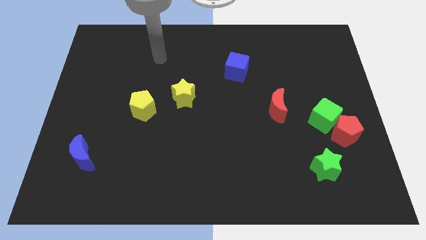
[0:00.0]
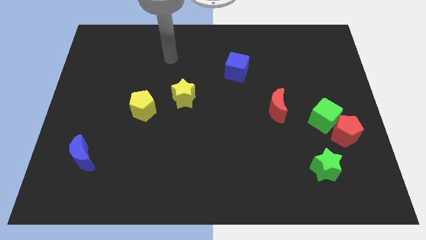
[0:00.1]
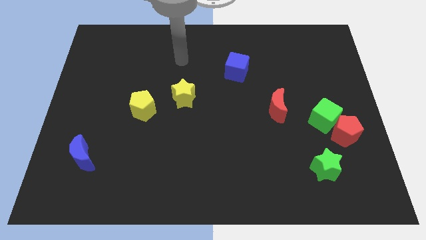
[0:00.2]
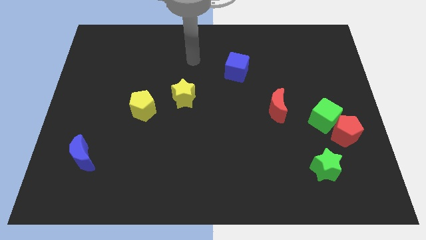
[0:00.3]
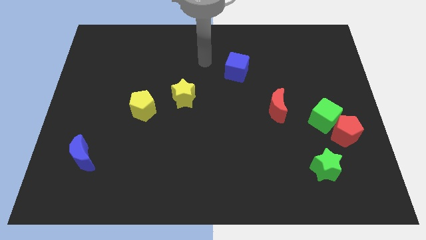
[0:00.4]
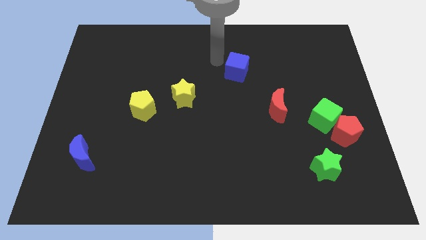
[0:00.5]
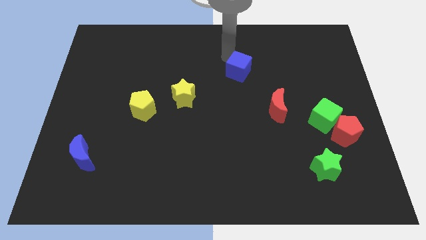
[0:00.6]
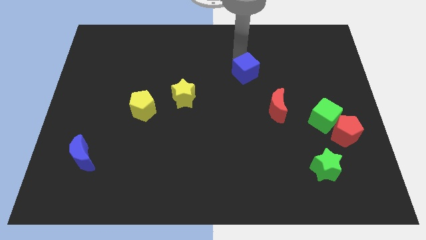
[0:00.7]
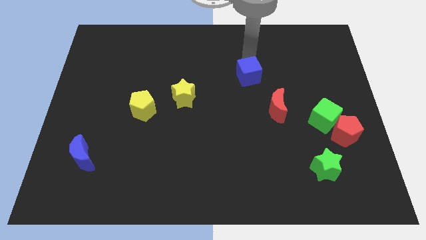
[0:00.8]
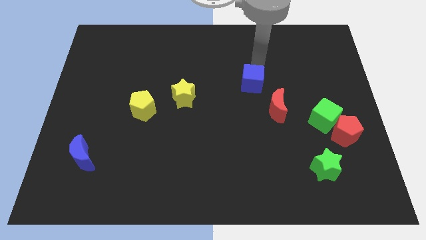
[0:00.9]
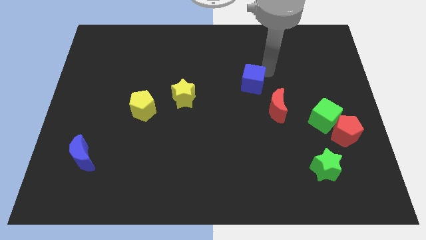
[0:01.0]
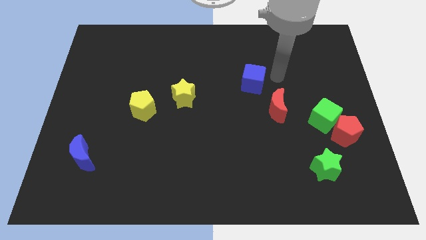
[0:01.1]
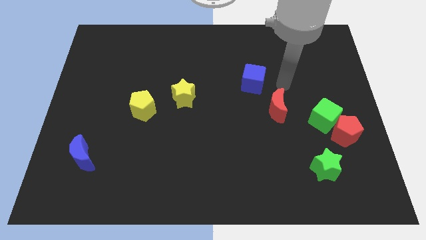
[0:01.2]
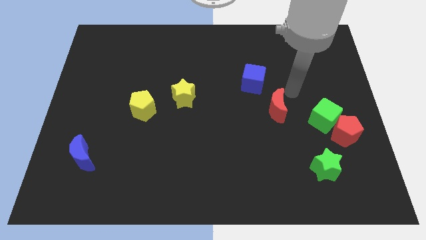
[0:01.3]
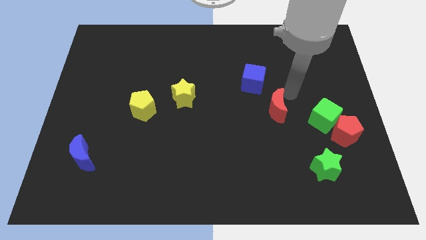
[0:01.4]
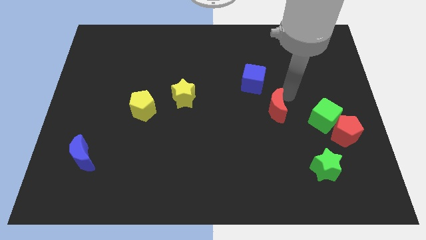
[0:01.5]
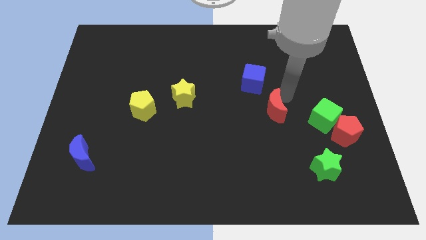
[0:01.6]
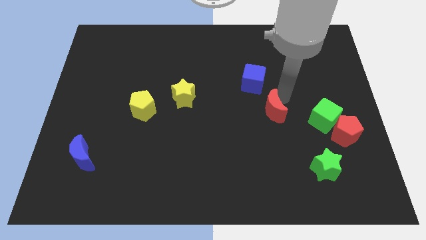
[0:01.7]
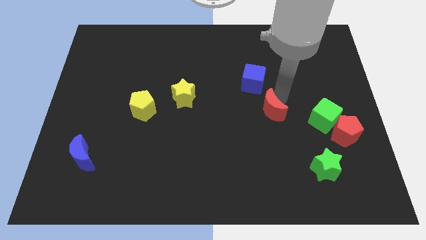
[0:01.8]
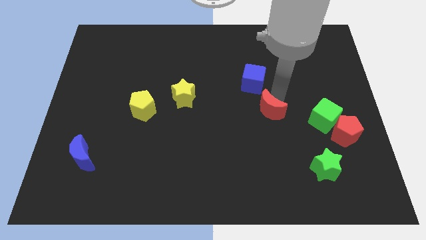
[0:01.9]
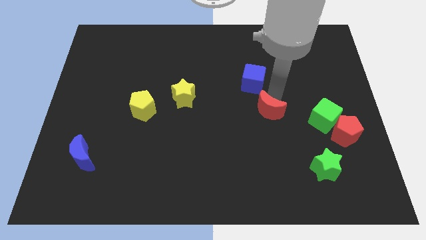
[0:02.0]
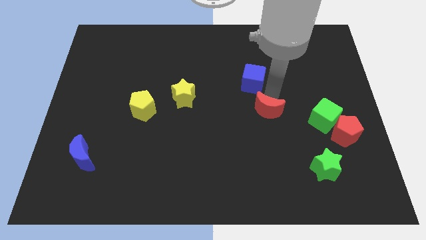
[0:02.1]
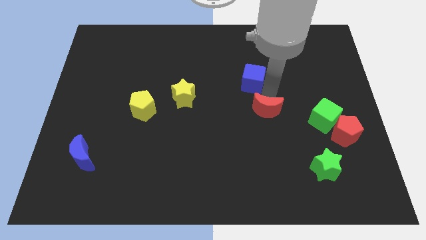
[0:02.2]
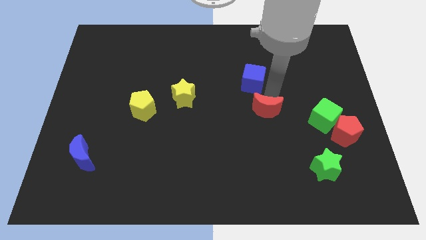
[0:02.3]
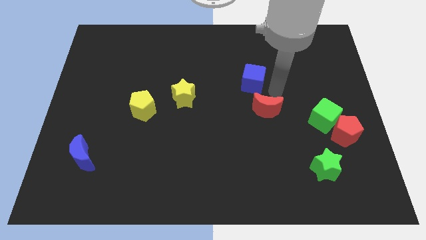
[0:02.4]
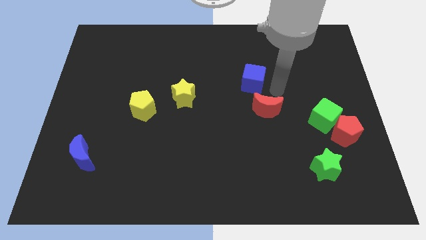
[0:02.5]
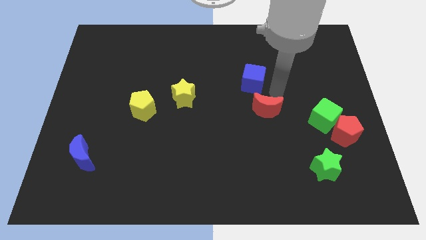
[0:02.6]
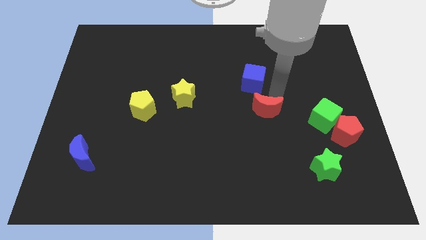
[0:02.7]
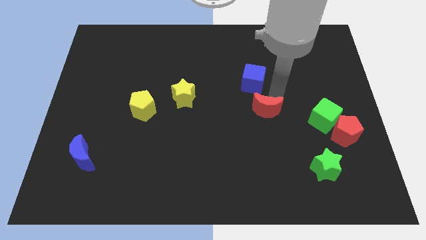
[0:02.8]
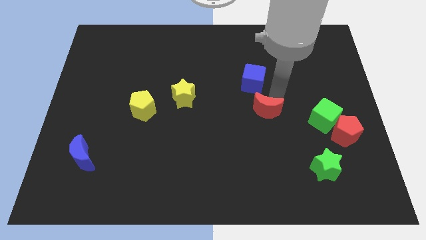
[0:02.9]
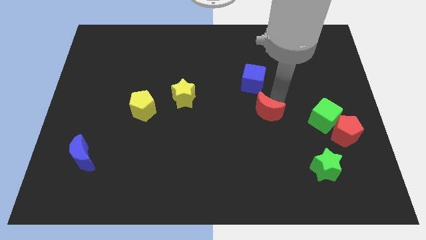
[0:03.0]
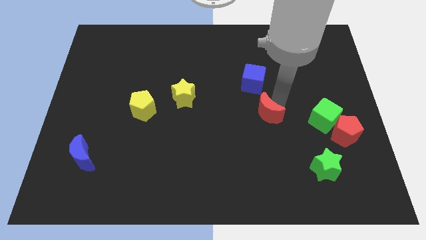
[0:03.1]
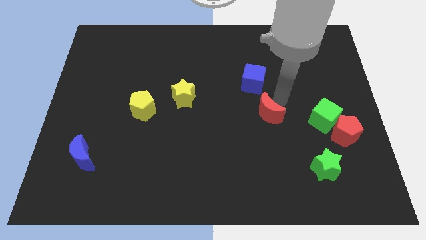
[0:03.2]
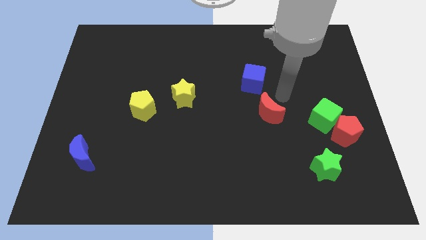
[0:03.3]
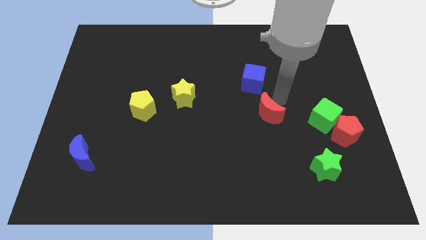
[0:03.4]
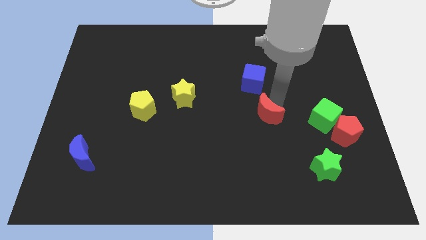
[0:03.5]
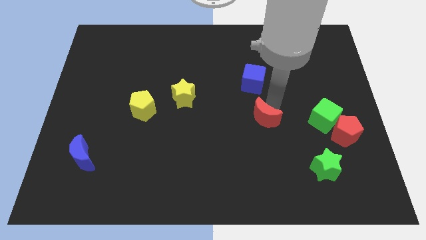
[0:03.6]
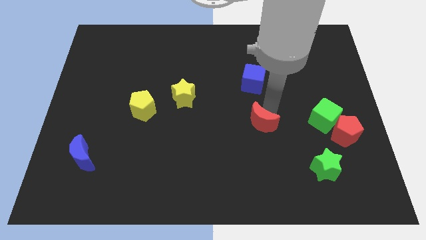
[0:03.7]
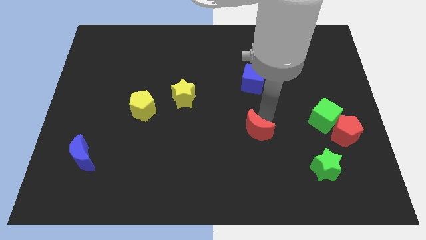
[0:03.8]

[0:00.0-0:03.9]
slide the red moon slightly downwards and left

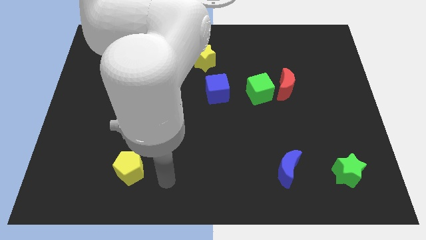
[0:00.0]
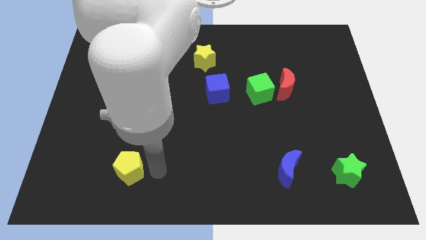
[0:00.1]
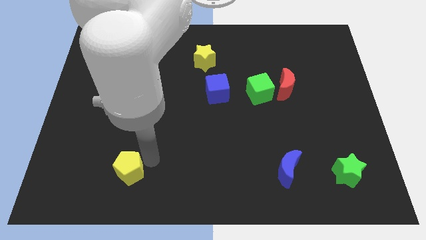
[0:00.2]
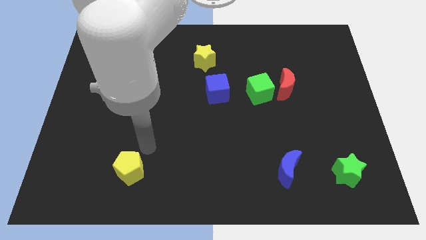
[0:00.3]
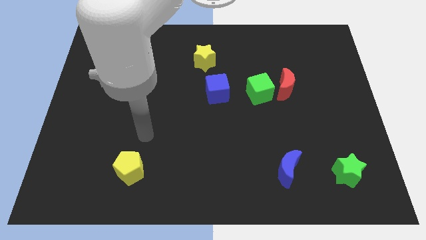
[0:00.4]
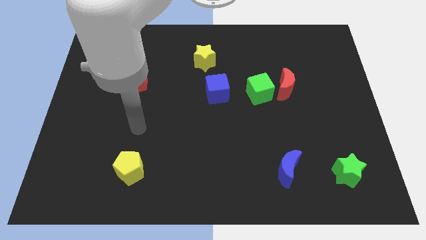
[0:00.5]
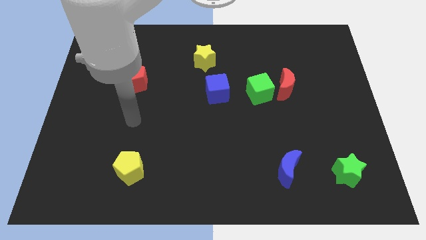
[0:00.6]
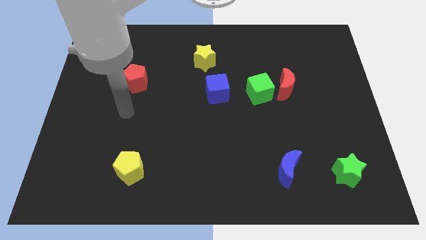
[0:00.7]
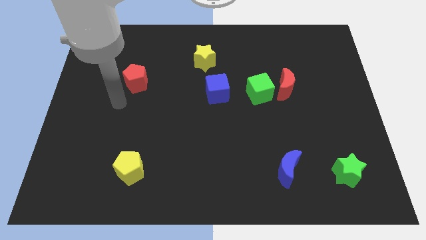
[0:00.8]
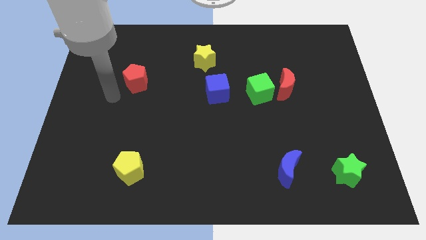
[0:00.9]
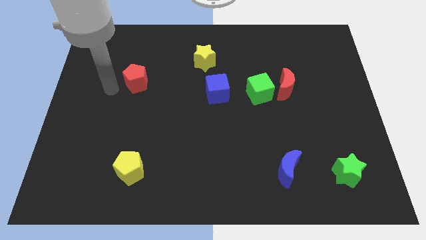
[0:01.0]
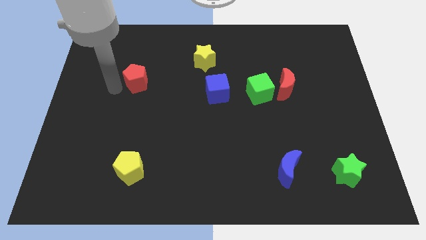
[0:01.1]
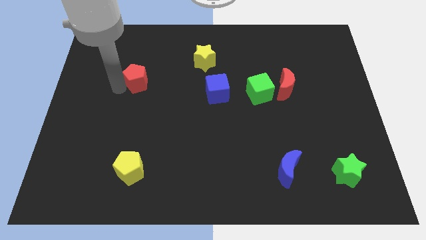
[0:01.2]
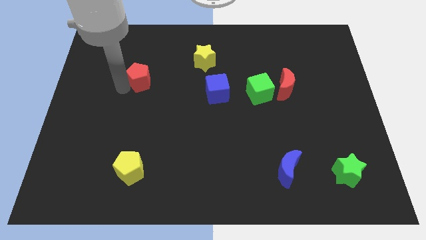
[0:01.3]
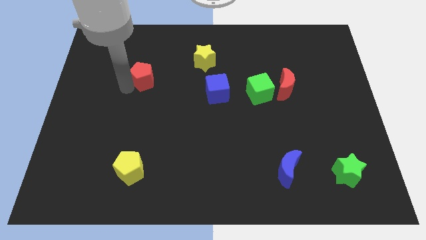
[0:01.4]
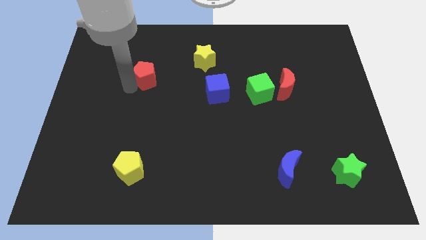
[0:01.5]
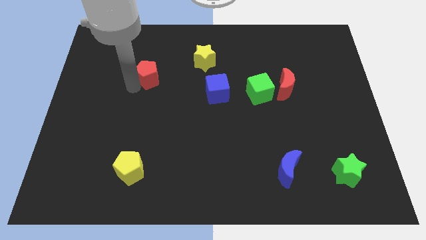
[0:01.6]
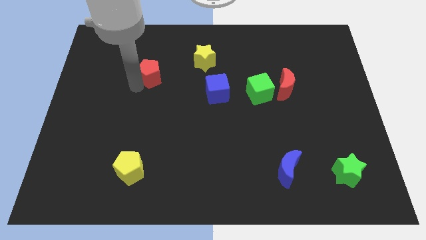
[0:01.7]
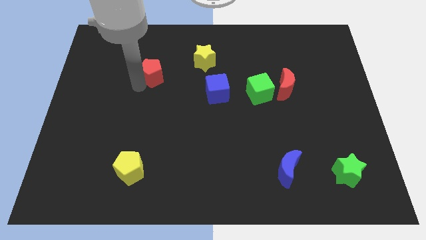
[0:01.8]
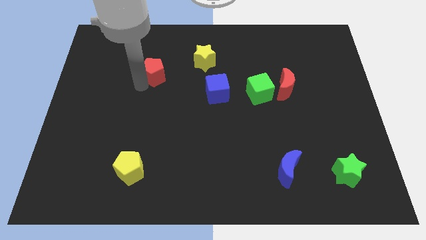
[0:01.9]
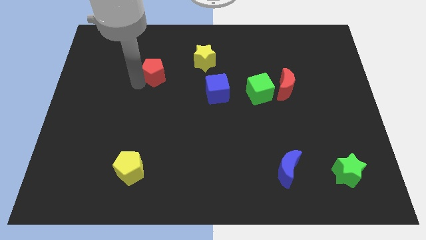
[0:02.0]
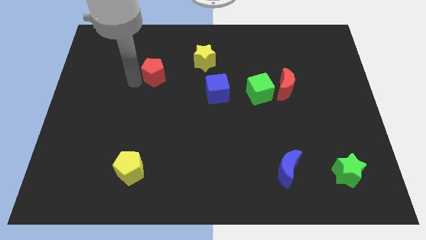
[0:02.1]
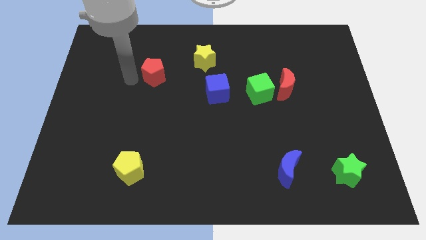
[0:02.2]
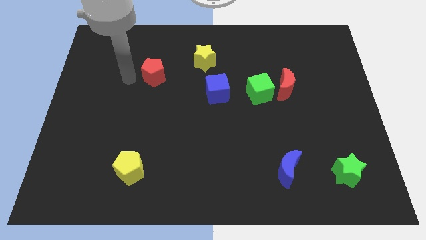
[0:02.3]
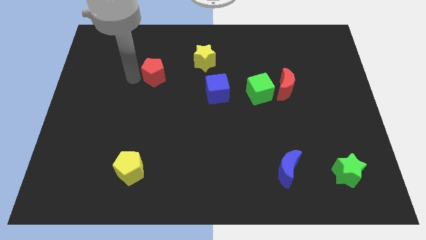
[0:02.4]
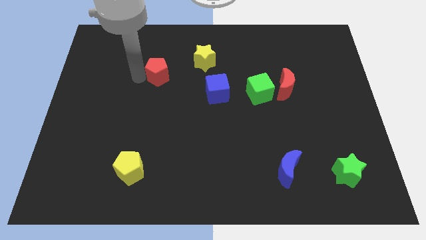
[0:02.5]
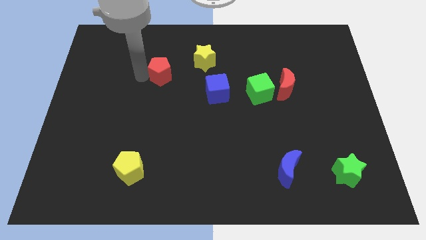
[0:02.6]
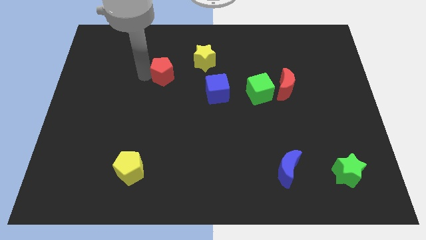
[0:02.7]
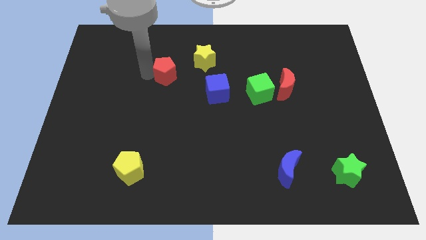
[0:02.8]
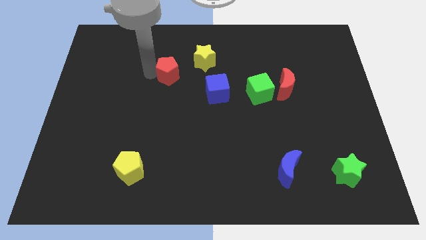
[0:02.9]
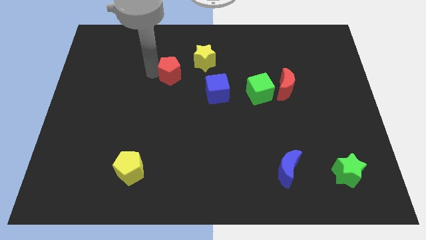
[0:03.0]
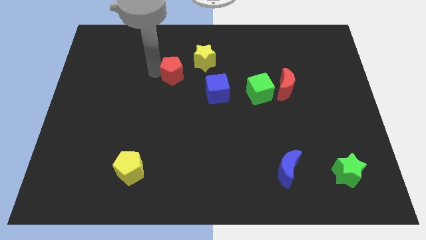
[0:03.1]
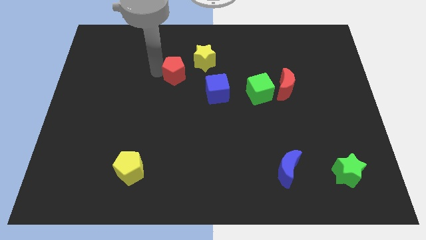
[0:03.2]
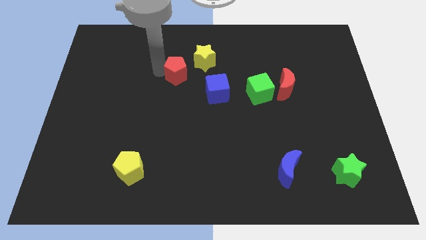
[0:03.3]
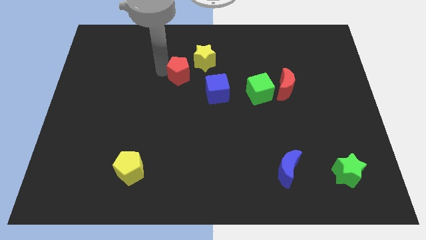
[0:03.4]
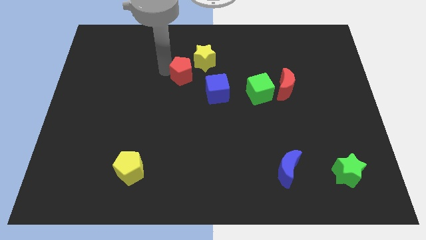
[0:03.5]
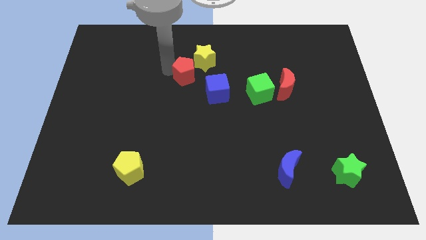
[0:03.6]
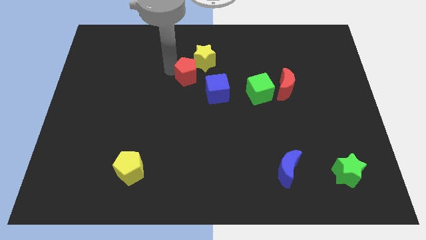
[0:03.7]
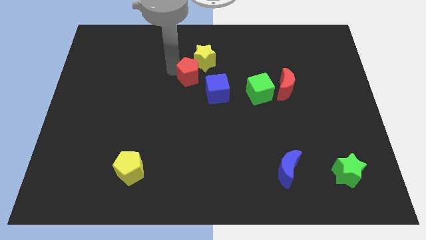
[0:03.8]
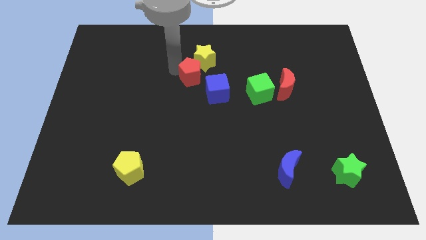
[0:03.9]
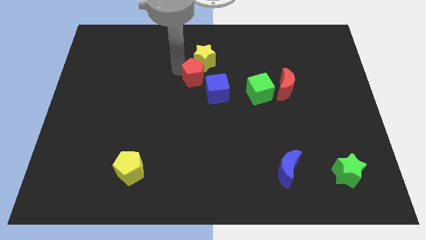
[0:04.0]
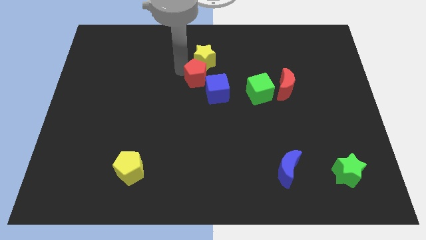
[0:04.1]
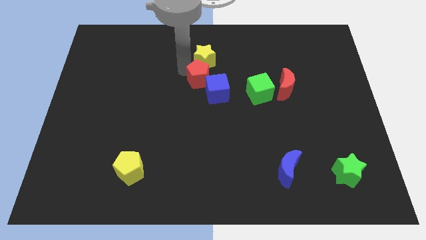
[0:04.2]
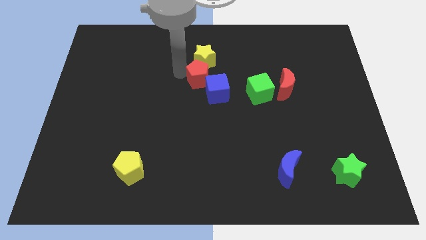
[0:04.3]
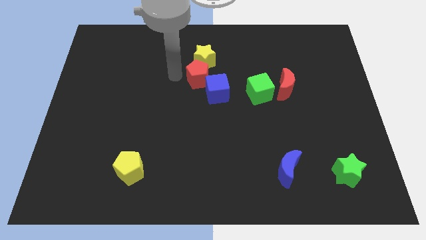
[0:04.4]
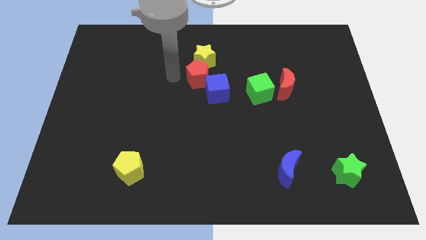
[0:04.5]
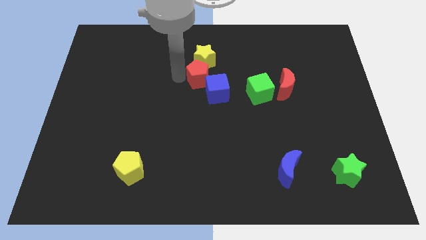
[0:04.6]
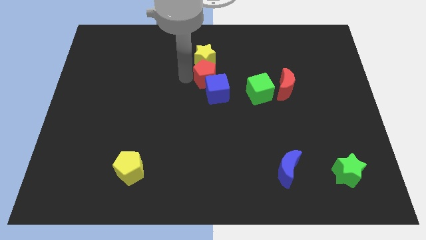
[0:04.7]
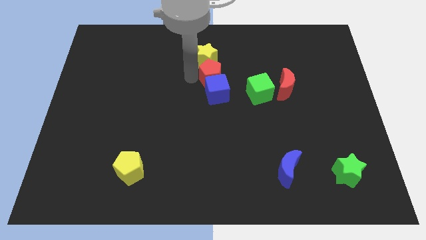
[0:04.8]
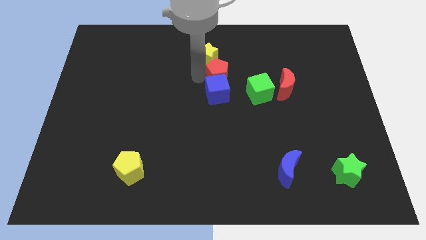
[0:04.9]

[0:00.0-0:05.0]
push the red pentagon to the right
